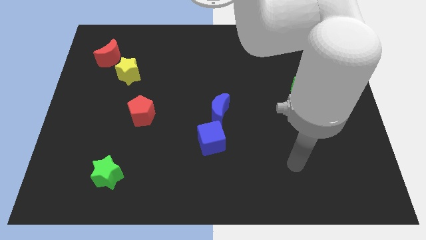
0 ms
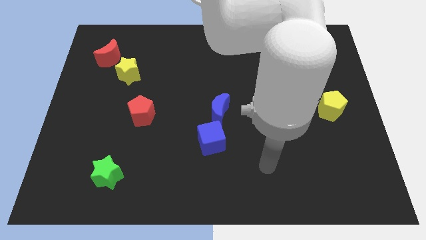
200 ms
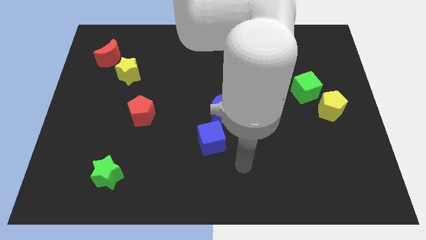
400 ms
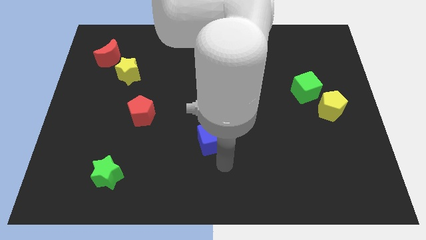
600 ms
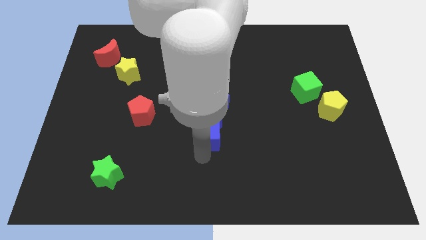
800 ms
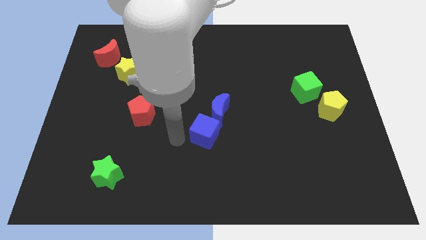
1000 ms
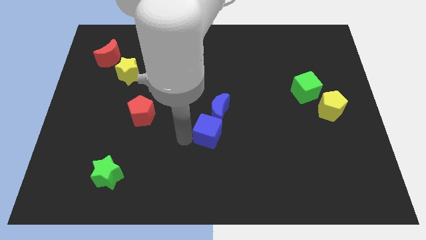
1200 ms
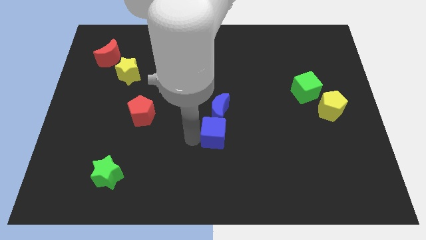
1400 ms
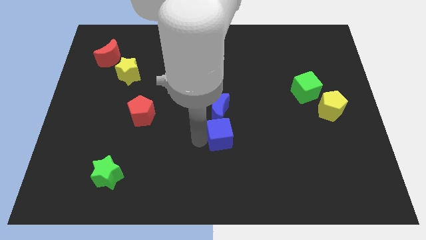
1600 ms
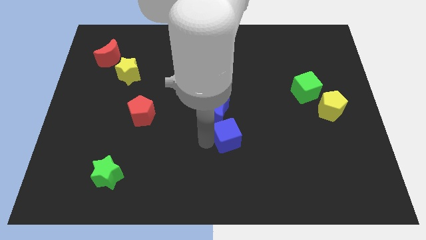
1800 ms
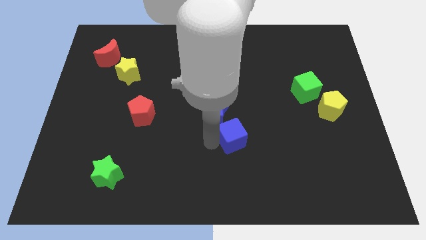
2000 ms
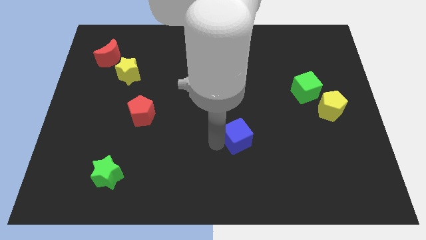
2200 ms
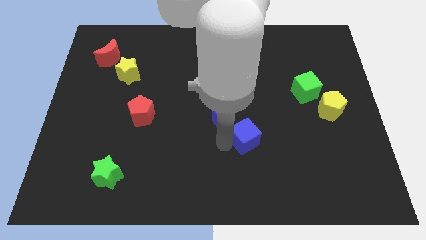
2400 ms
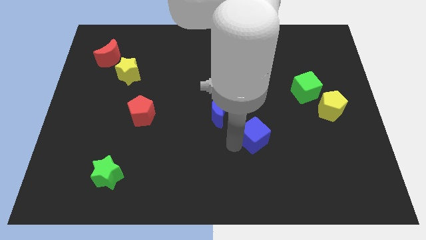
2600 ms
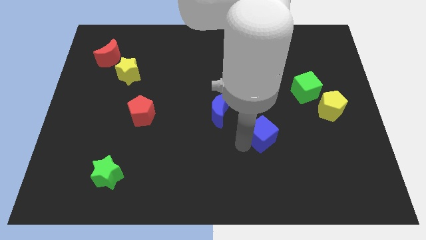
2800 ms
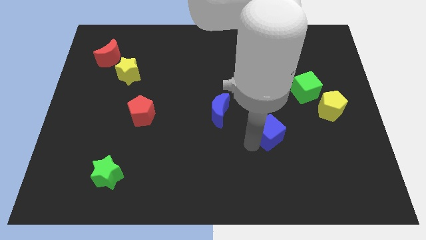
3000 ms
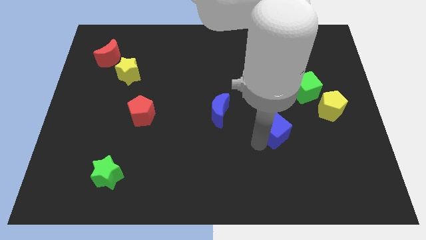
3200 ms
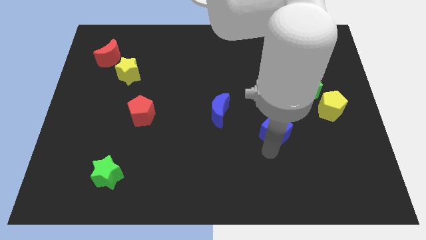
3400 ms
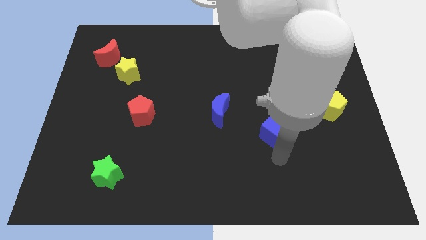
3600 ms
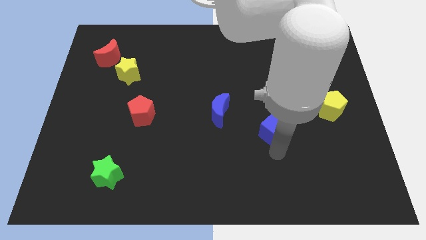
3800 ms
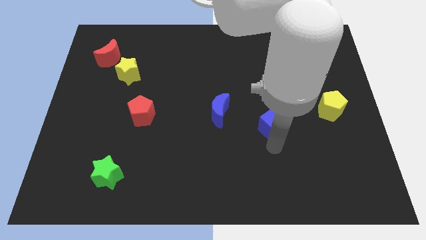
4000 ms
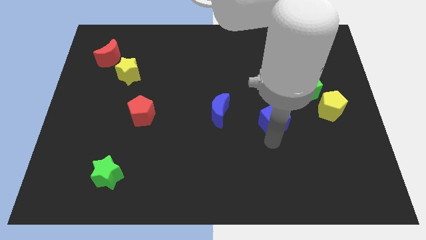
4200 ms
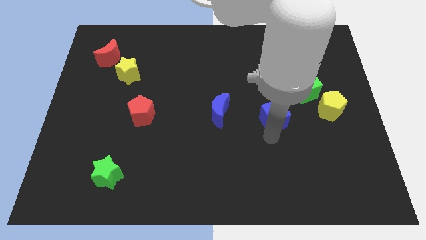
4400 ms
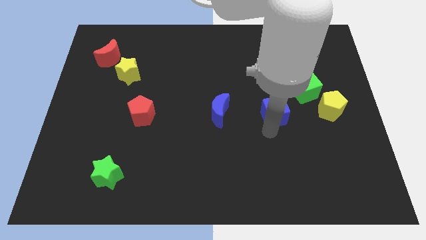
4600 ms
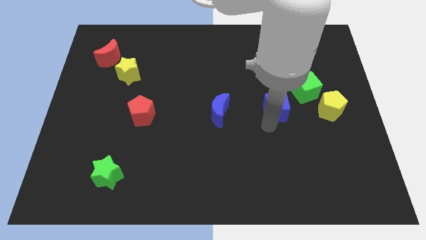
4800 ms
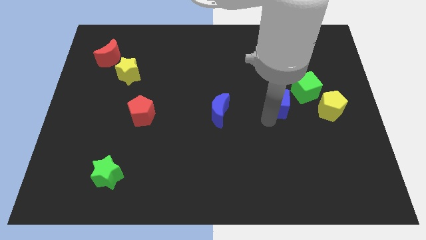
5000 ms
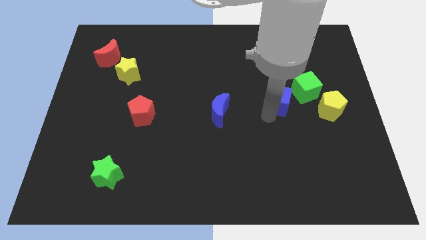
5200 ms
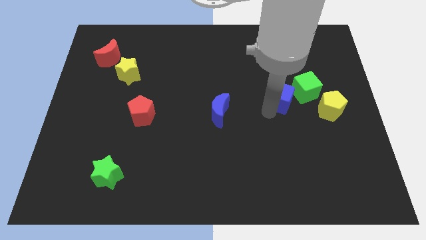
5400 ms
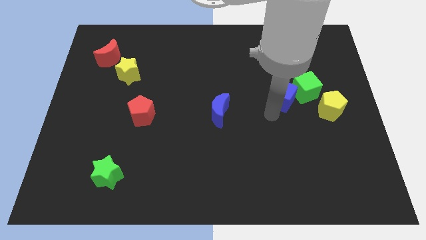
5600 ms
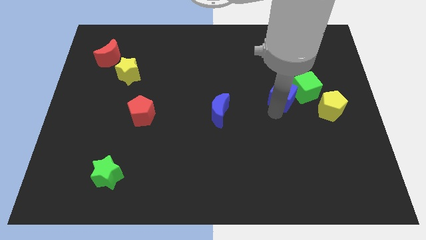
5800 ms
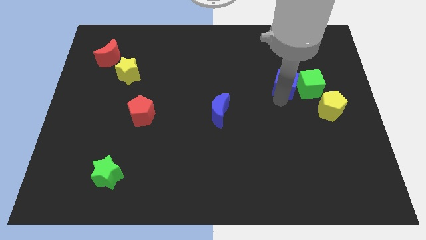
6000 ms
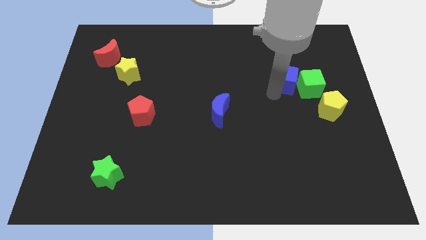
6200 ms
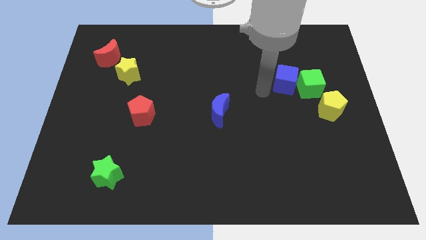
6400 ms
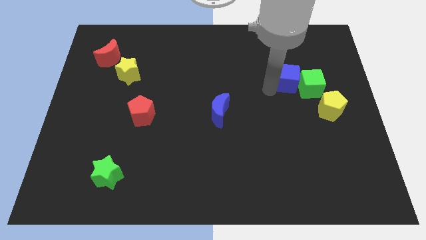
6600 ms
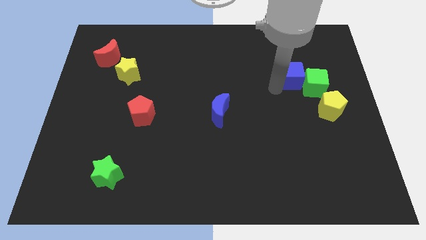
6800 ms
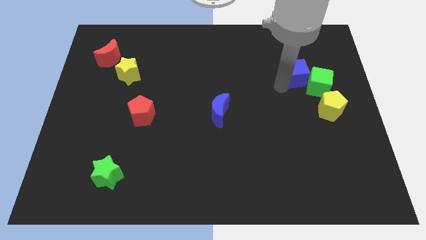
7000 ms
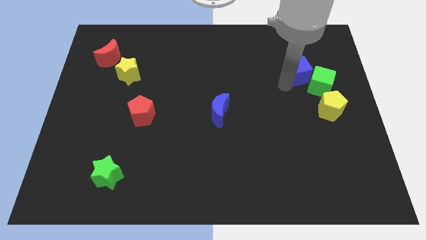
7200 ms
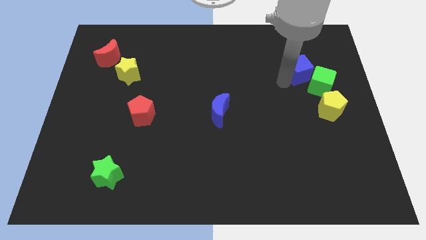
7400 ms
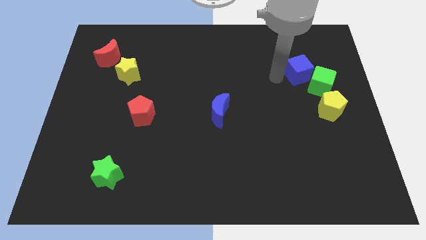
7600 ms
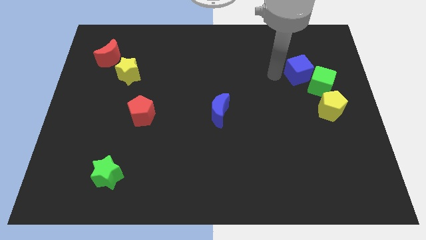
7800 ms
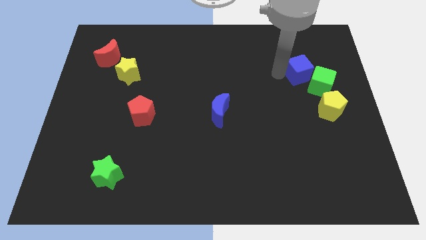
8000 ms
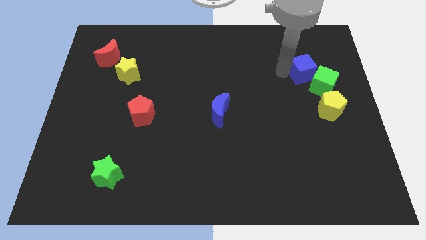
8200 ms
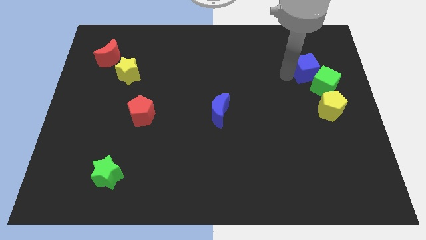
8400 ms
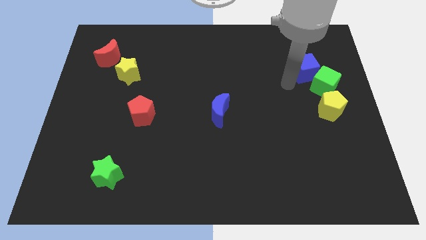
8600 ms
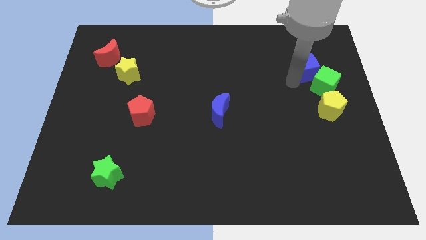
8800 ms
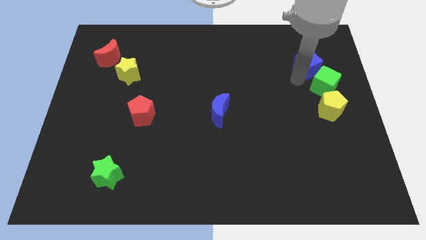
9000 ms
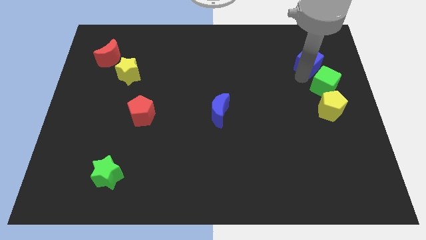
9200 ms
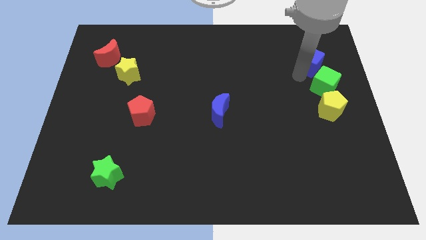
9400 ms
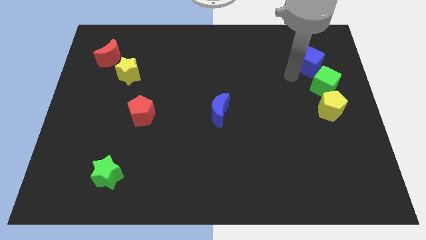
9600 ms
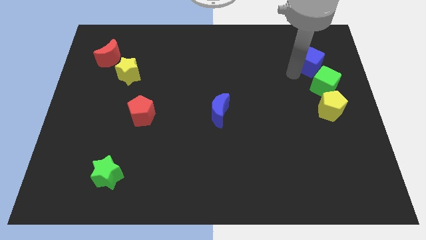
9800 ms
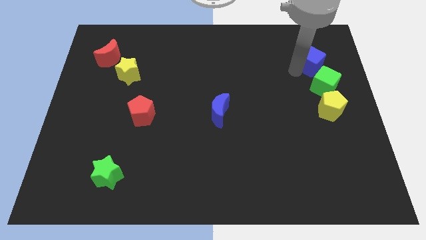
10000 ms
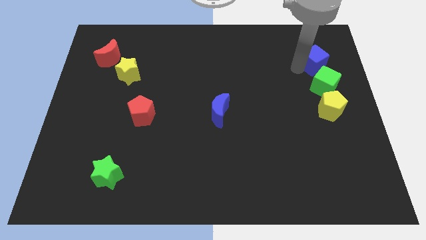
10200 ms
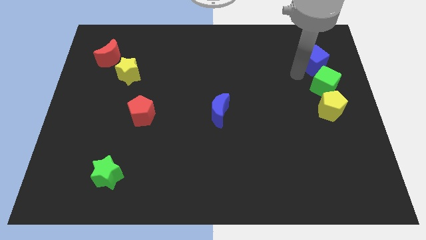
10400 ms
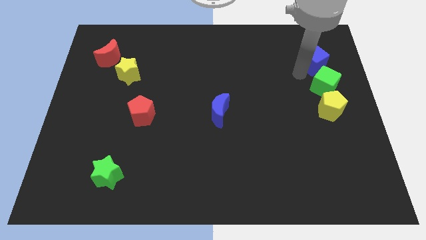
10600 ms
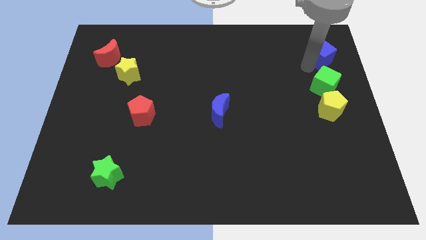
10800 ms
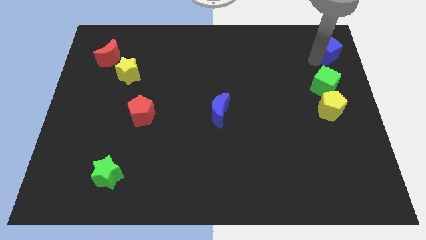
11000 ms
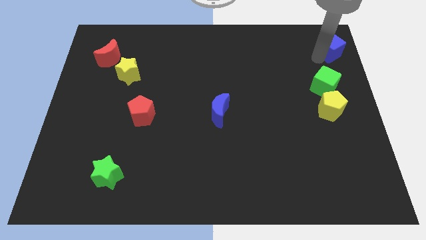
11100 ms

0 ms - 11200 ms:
push the blue cube to the top right of the board

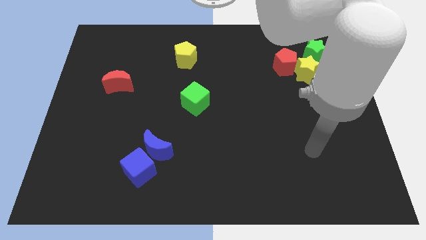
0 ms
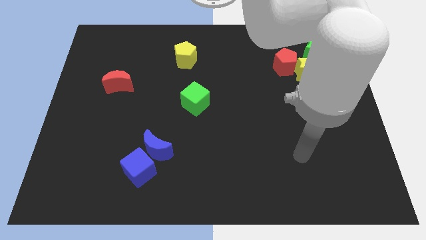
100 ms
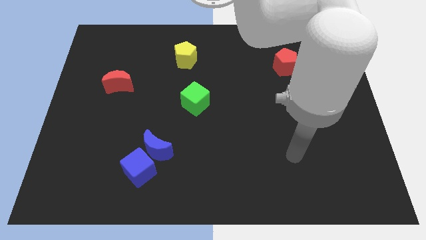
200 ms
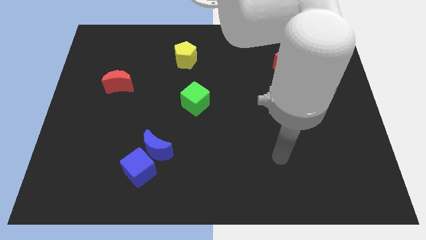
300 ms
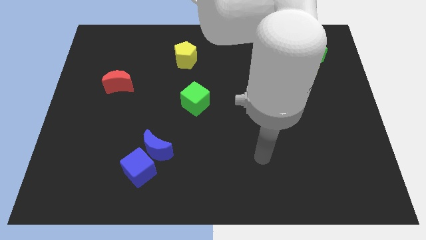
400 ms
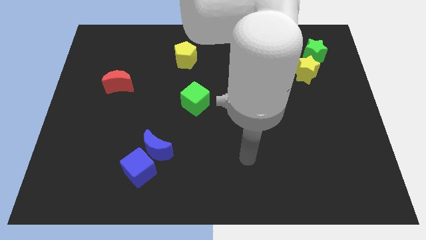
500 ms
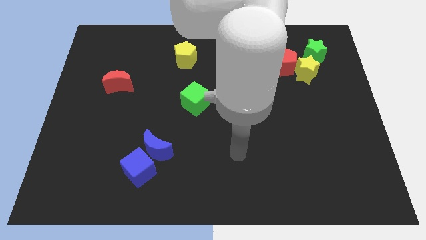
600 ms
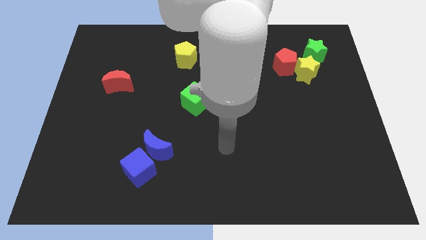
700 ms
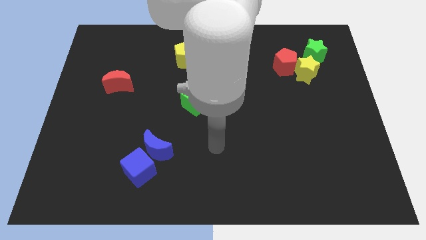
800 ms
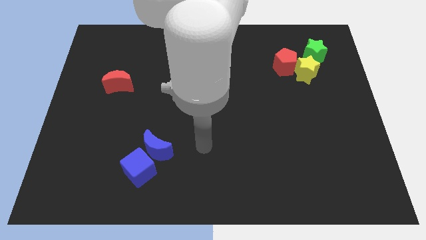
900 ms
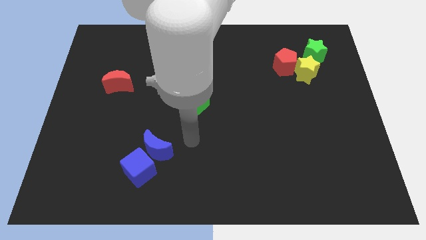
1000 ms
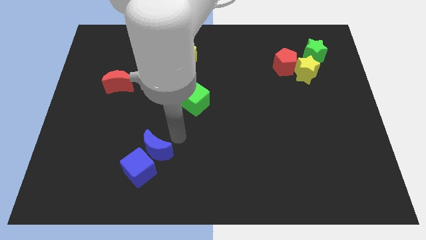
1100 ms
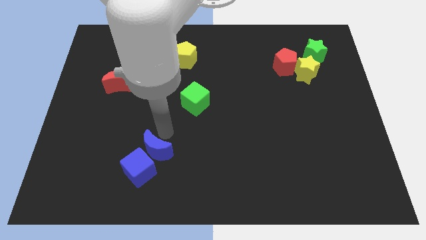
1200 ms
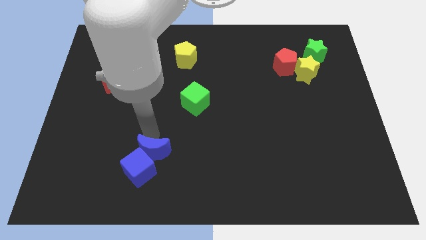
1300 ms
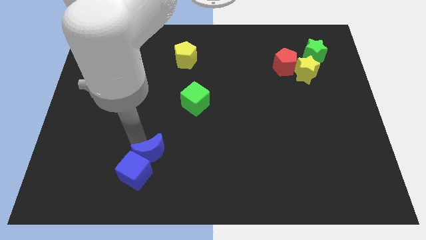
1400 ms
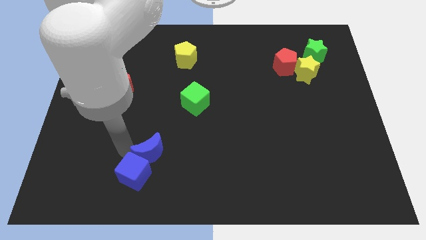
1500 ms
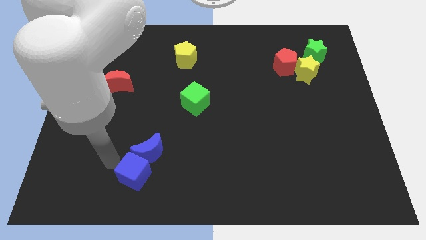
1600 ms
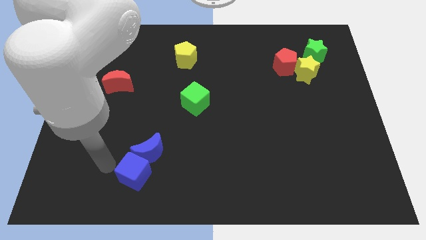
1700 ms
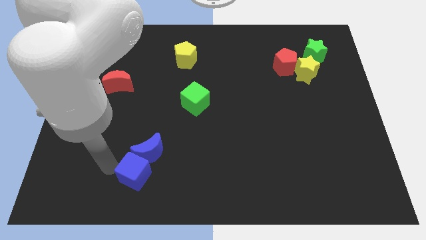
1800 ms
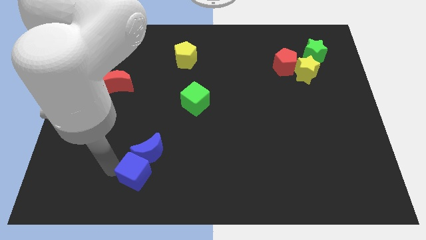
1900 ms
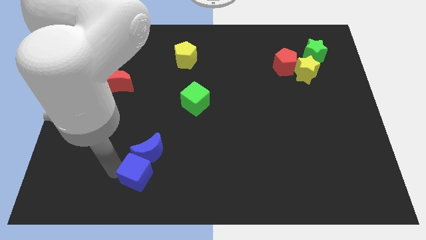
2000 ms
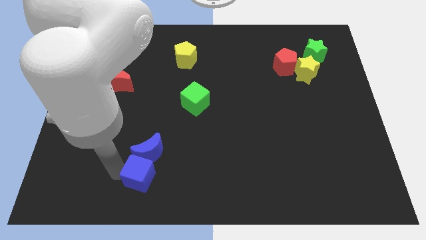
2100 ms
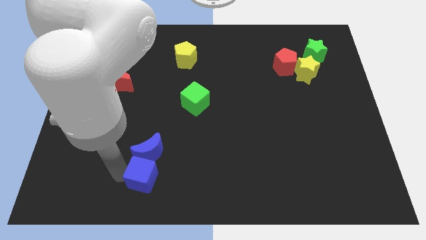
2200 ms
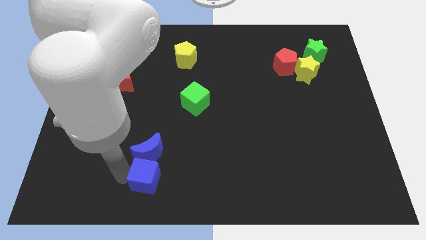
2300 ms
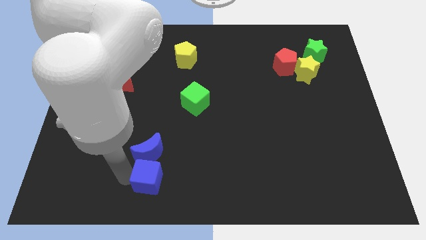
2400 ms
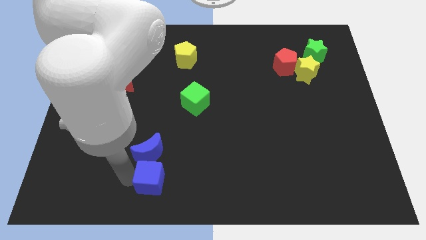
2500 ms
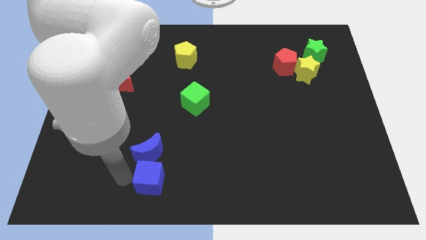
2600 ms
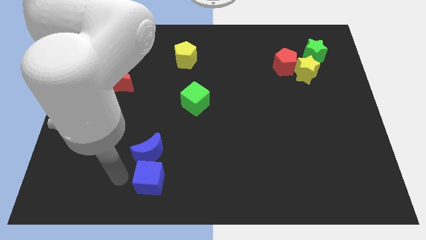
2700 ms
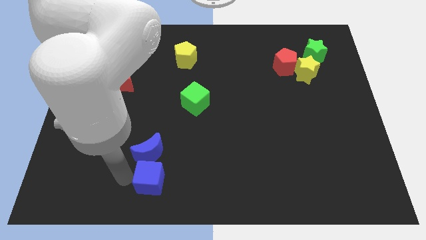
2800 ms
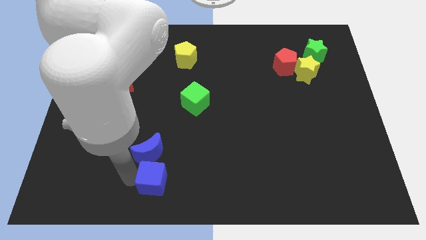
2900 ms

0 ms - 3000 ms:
push the blue cube to the bottom side
